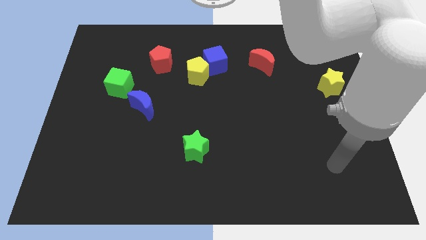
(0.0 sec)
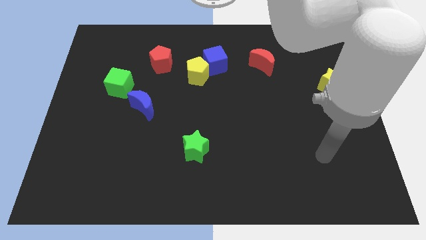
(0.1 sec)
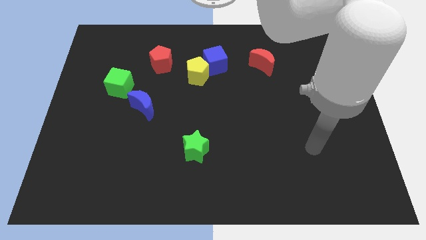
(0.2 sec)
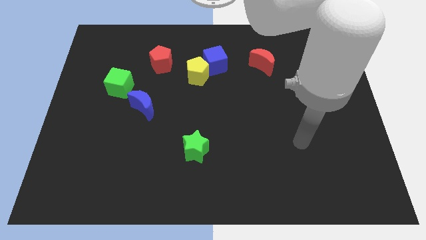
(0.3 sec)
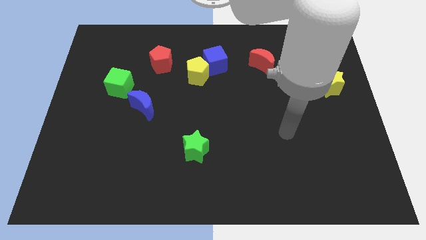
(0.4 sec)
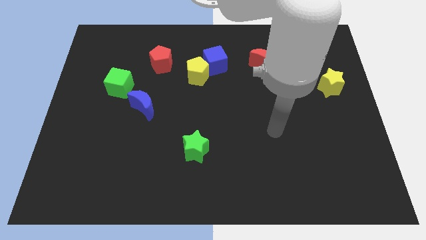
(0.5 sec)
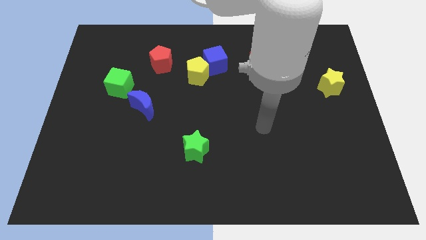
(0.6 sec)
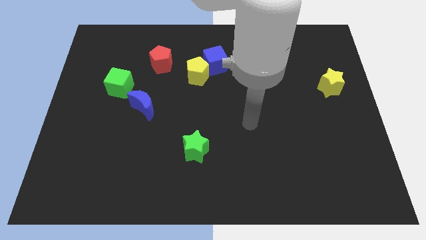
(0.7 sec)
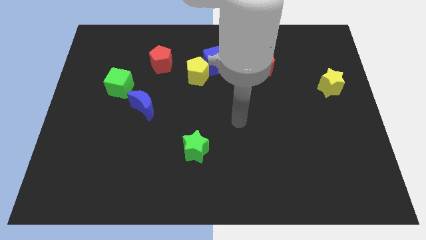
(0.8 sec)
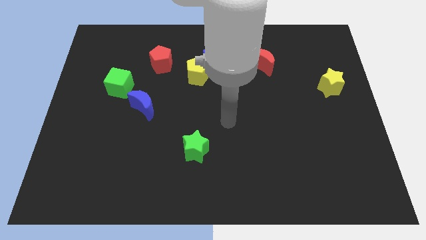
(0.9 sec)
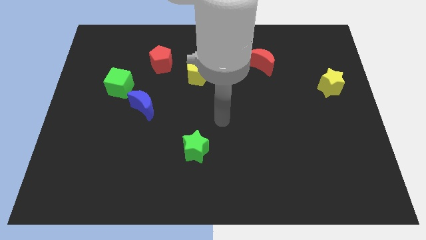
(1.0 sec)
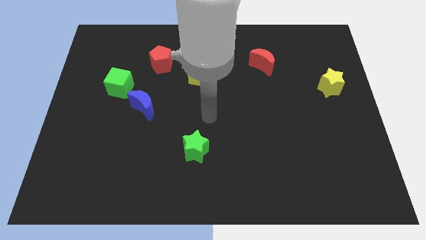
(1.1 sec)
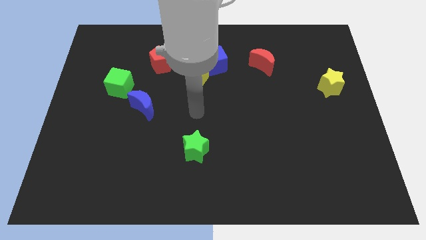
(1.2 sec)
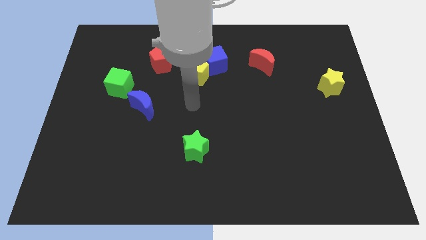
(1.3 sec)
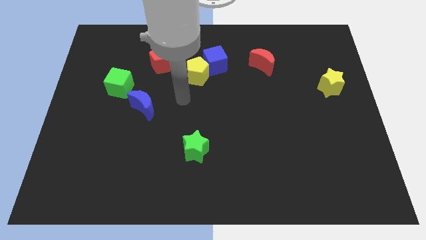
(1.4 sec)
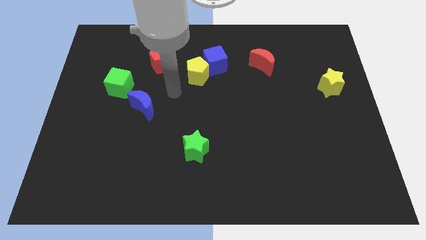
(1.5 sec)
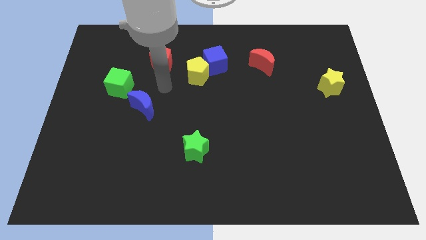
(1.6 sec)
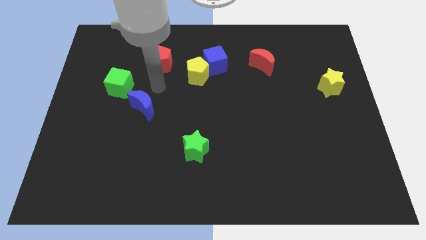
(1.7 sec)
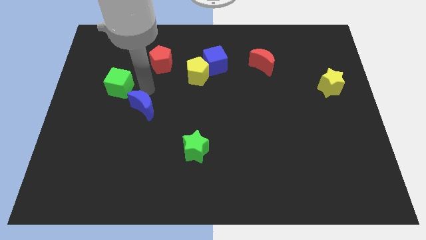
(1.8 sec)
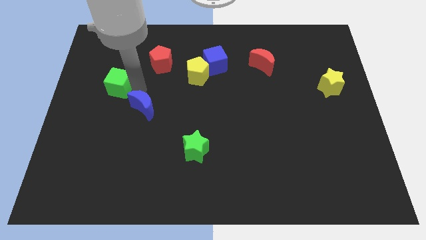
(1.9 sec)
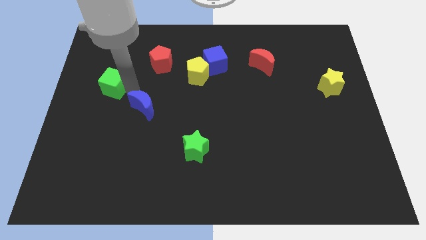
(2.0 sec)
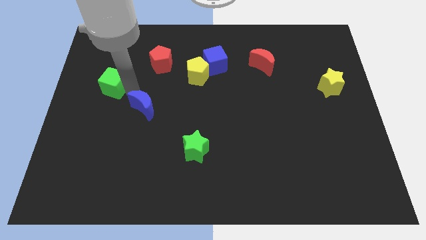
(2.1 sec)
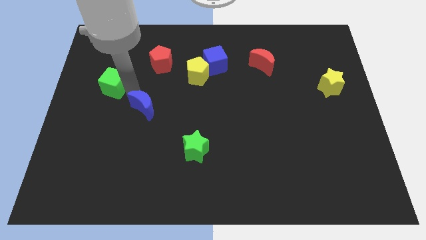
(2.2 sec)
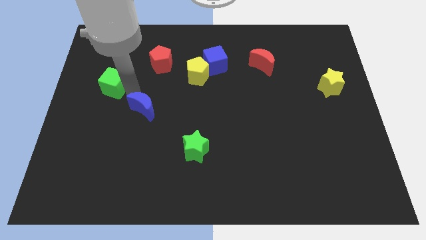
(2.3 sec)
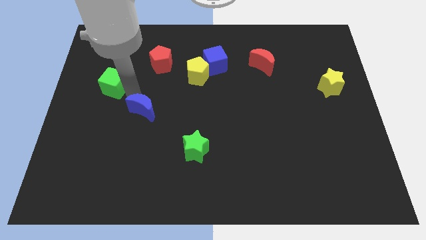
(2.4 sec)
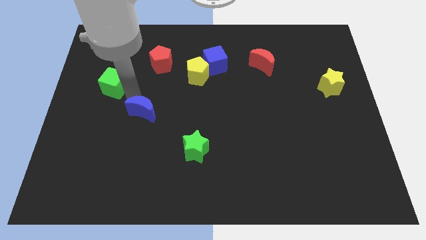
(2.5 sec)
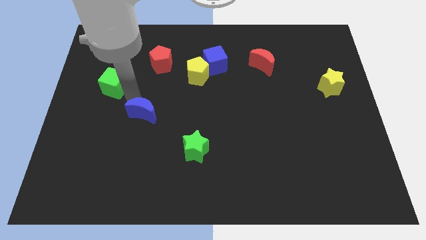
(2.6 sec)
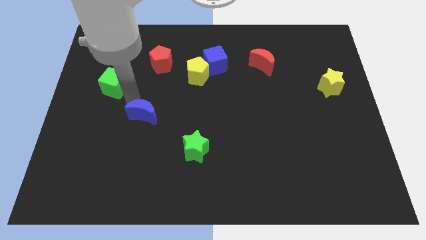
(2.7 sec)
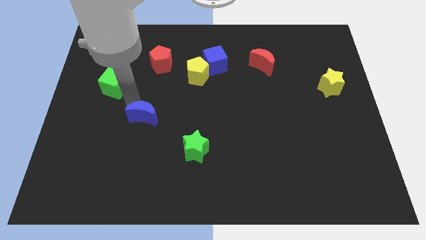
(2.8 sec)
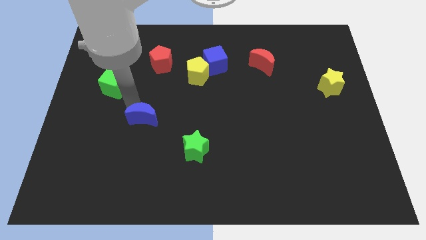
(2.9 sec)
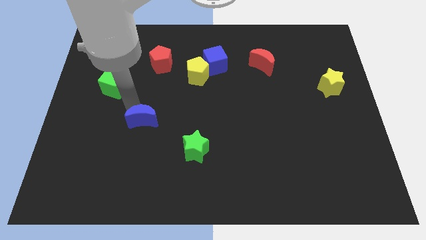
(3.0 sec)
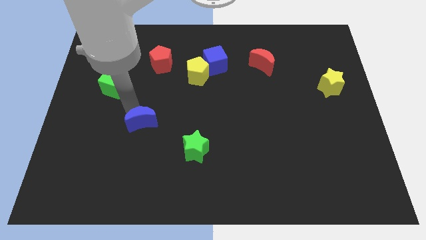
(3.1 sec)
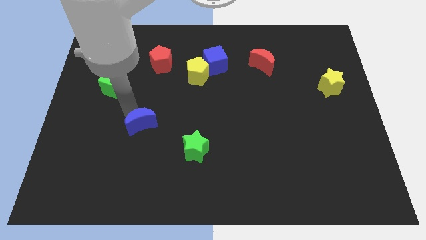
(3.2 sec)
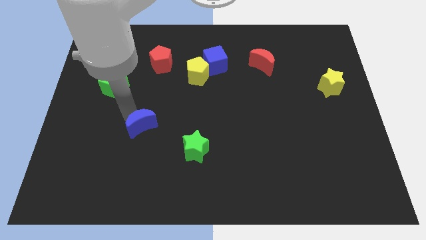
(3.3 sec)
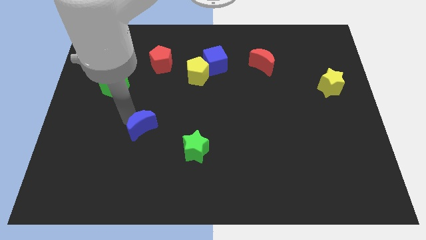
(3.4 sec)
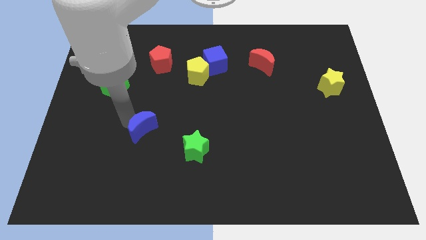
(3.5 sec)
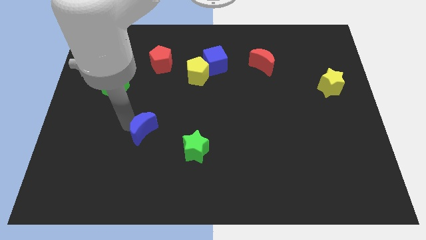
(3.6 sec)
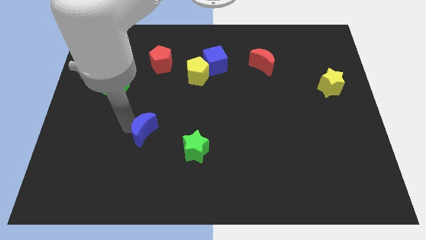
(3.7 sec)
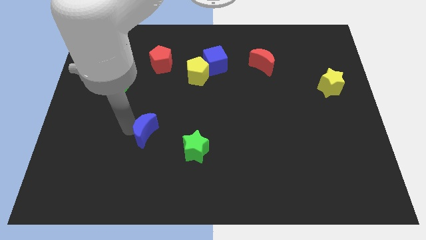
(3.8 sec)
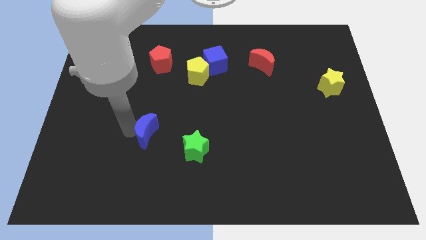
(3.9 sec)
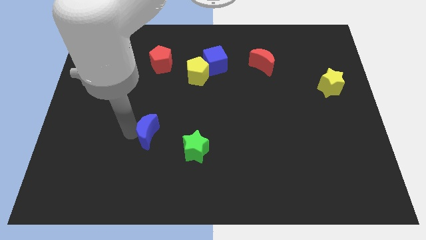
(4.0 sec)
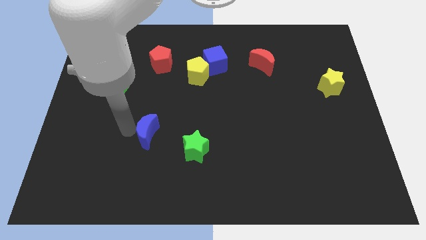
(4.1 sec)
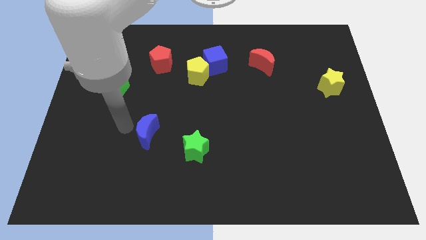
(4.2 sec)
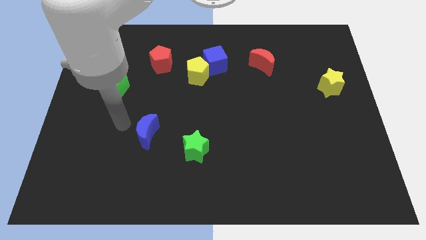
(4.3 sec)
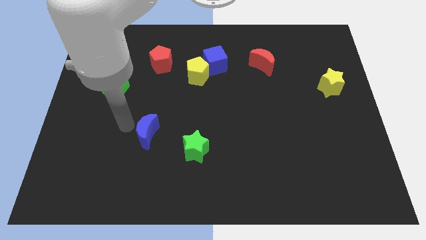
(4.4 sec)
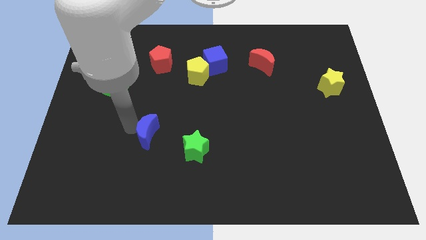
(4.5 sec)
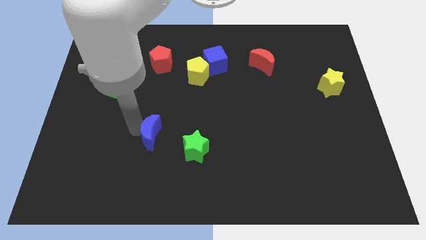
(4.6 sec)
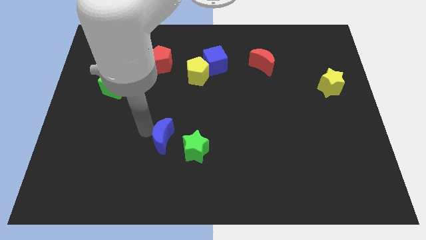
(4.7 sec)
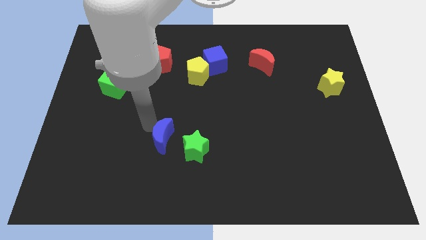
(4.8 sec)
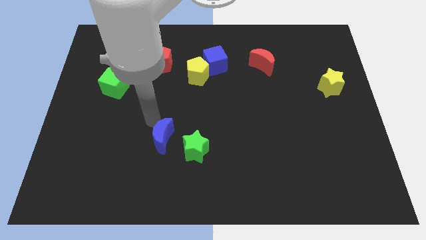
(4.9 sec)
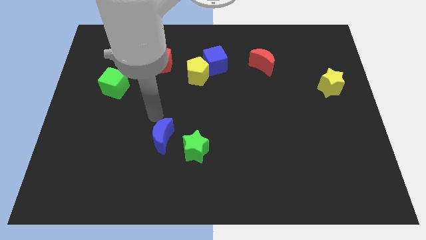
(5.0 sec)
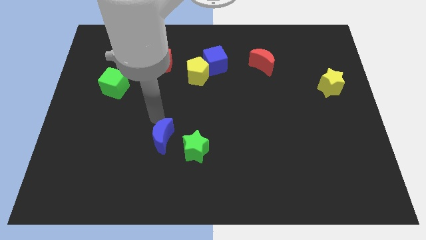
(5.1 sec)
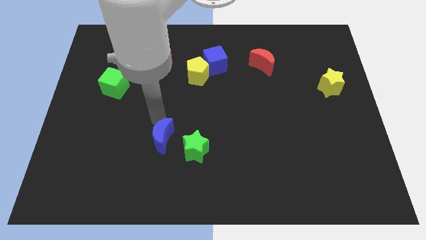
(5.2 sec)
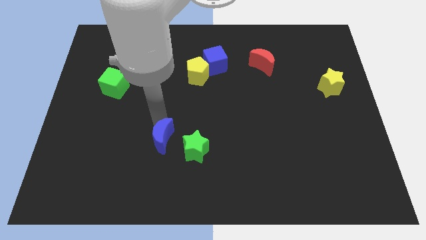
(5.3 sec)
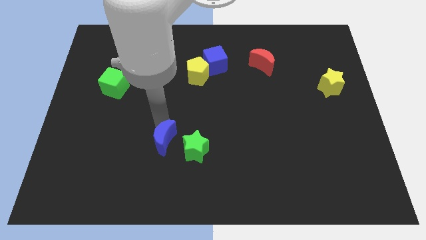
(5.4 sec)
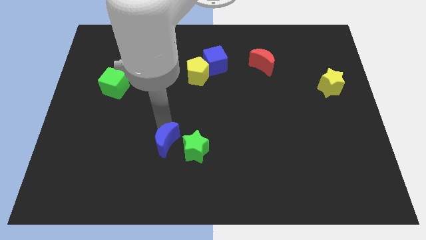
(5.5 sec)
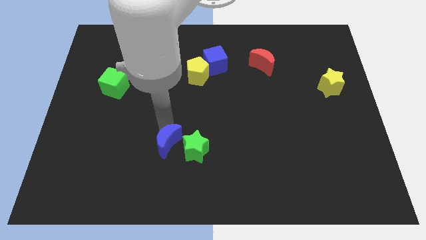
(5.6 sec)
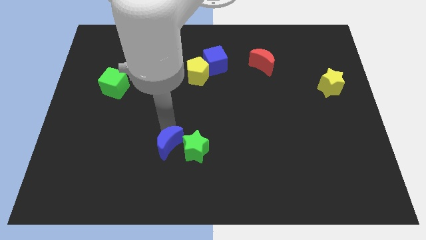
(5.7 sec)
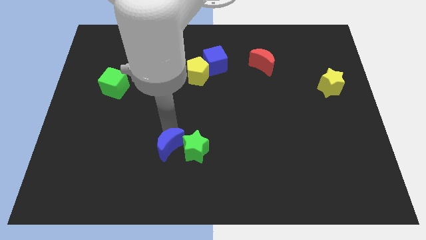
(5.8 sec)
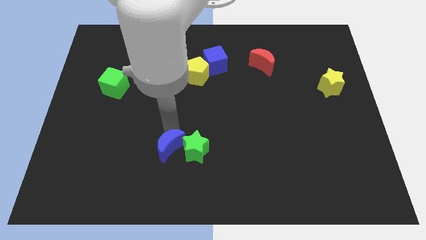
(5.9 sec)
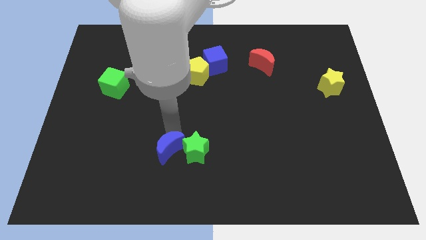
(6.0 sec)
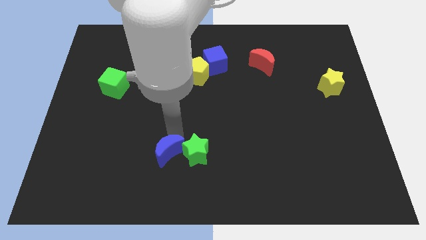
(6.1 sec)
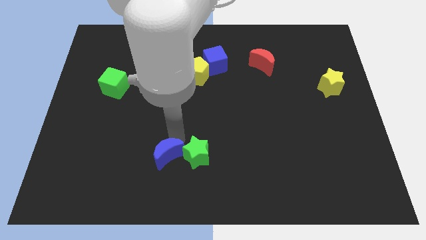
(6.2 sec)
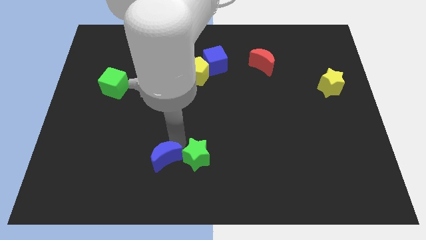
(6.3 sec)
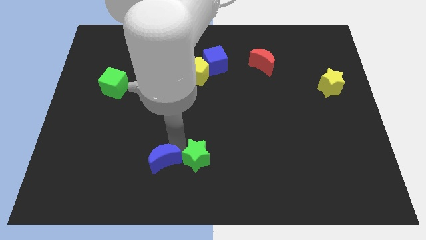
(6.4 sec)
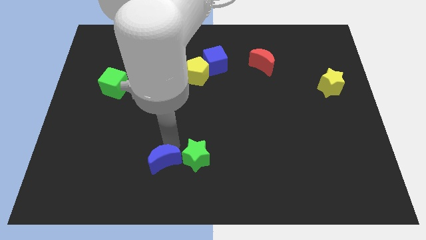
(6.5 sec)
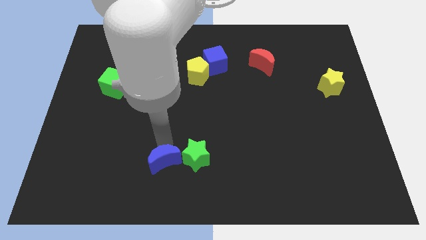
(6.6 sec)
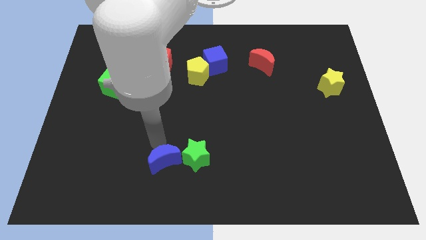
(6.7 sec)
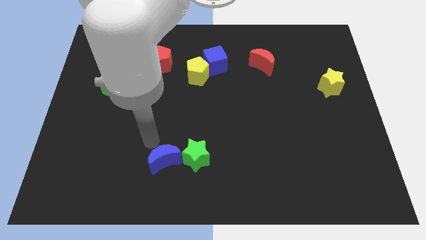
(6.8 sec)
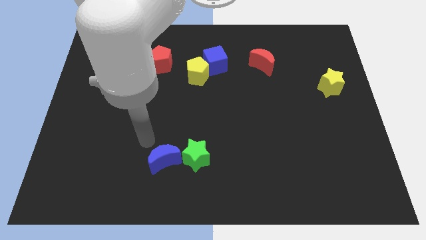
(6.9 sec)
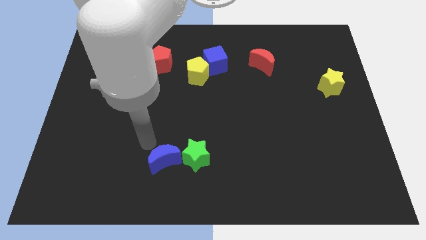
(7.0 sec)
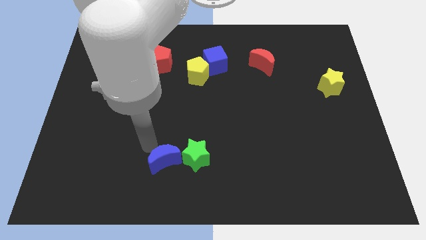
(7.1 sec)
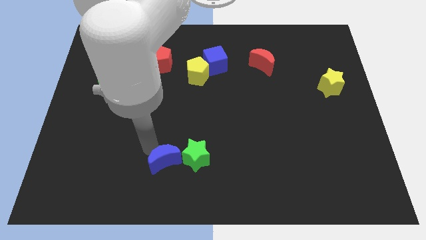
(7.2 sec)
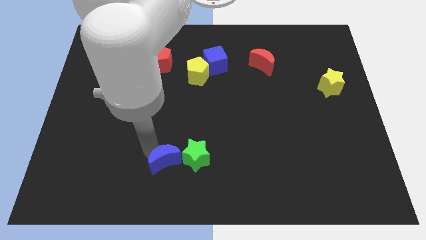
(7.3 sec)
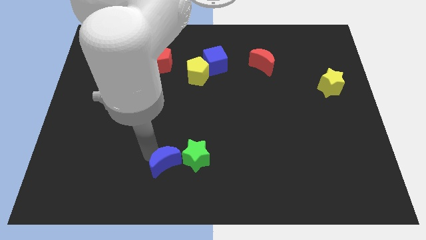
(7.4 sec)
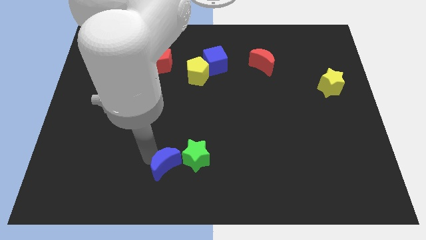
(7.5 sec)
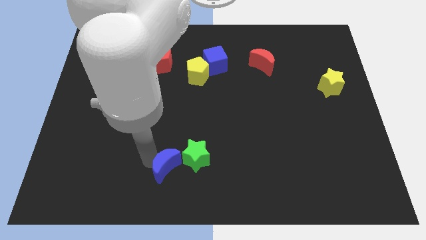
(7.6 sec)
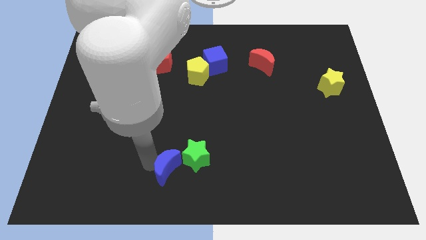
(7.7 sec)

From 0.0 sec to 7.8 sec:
put the blue moon to the bottom

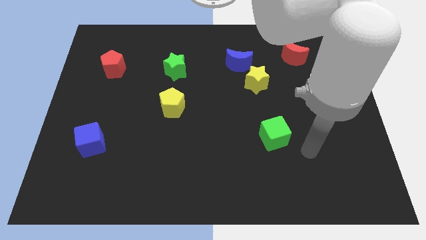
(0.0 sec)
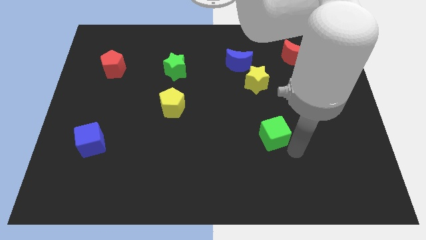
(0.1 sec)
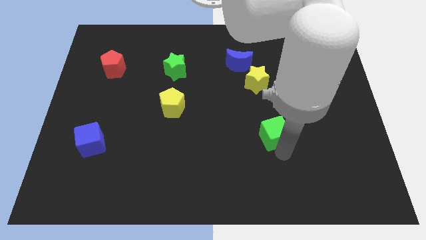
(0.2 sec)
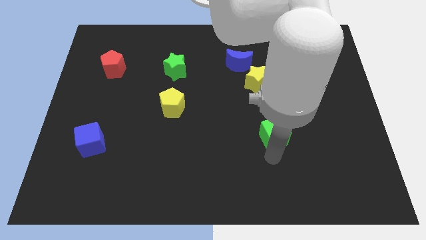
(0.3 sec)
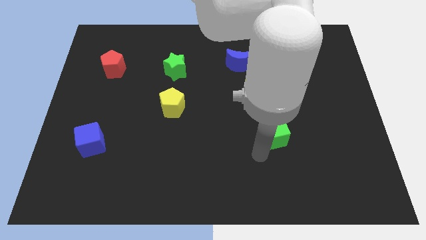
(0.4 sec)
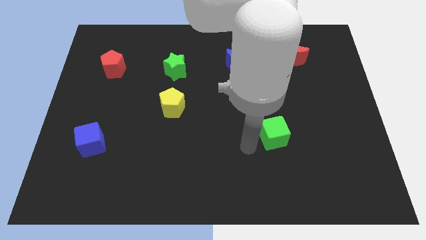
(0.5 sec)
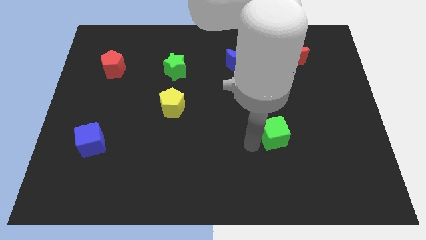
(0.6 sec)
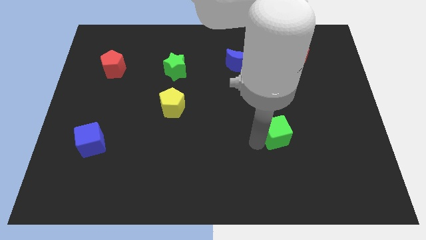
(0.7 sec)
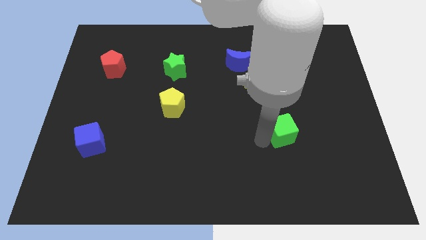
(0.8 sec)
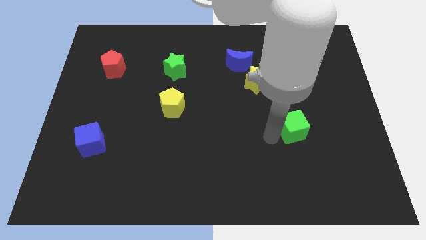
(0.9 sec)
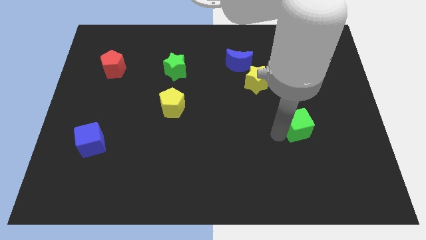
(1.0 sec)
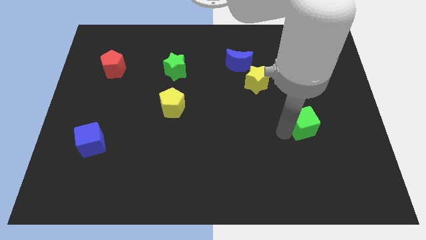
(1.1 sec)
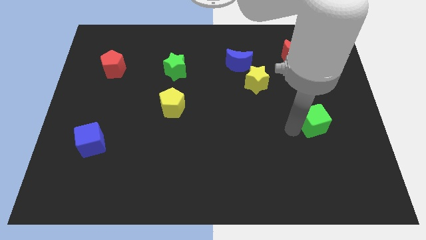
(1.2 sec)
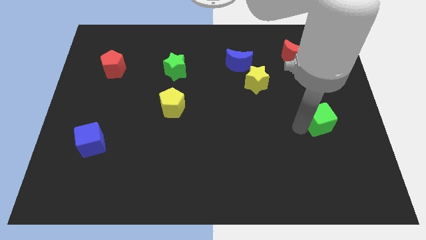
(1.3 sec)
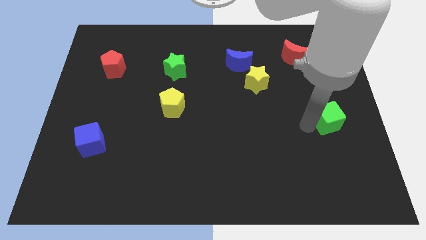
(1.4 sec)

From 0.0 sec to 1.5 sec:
slide the green cube to the right side of the board
